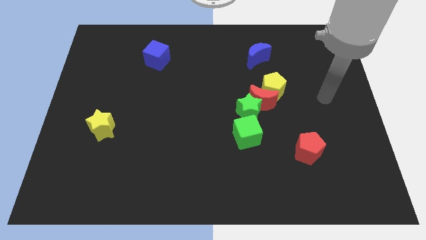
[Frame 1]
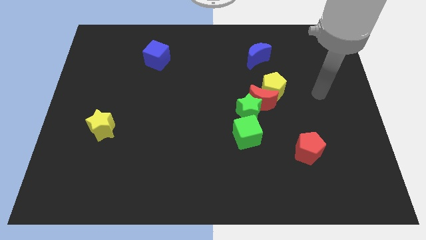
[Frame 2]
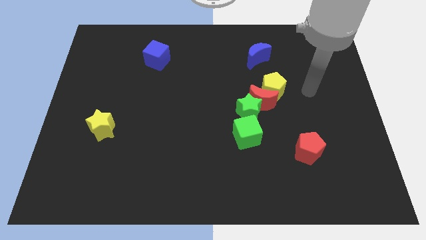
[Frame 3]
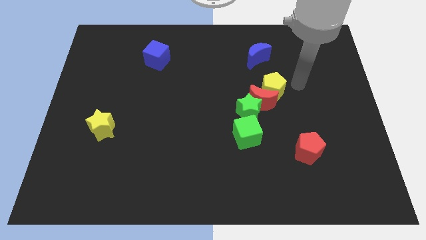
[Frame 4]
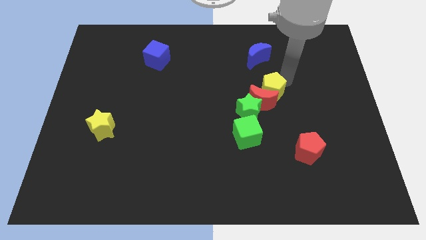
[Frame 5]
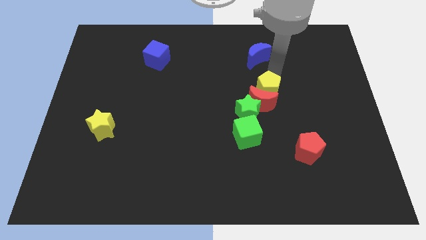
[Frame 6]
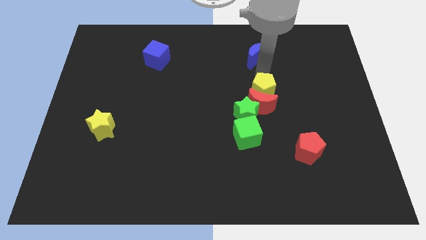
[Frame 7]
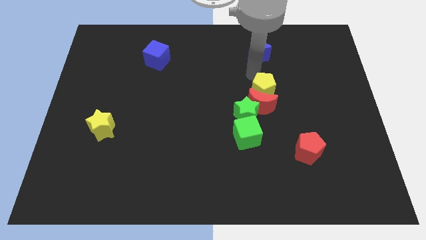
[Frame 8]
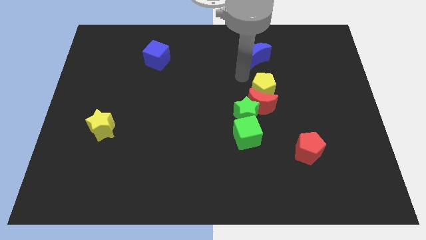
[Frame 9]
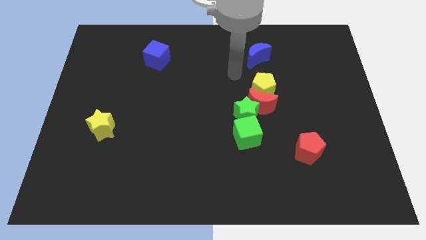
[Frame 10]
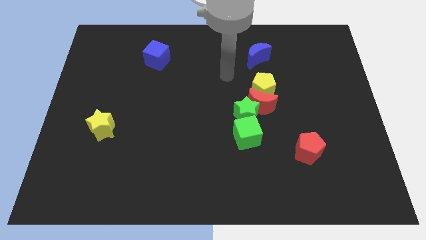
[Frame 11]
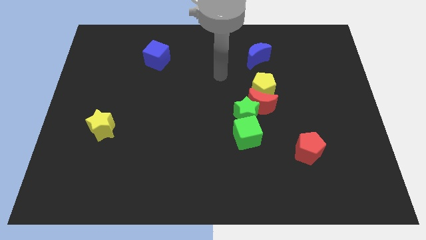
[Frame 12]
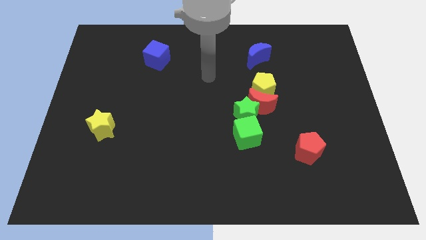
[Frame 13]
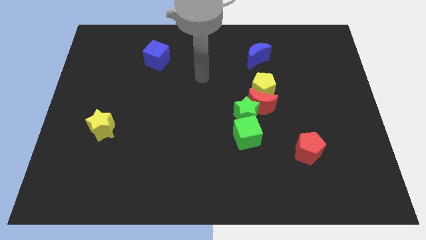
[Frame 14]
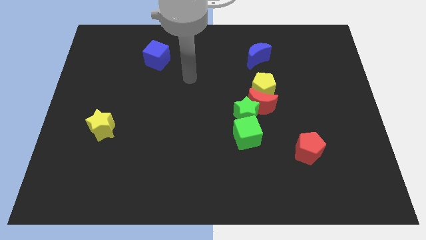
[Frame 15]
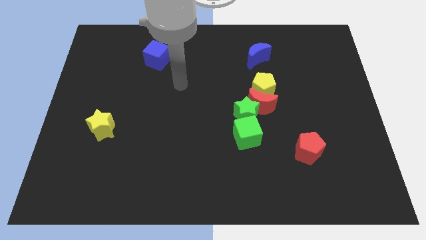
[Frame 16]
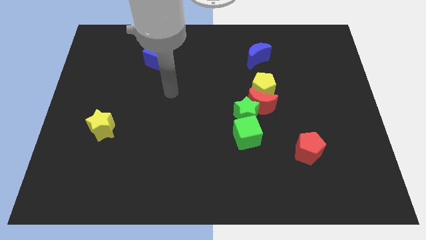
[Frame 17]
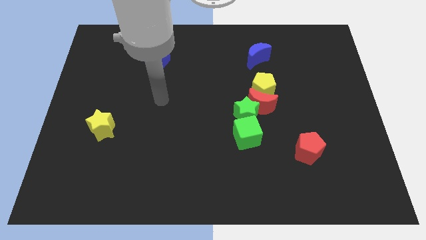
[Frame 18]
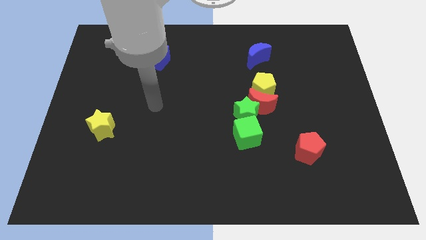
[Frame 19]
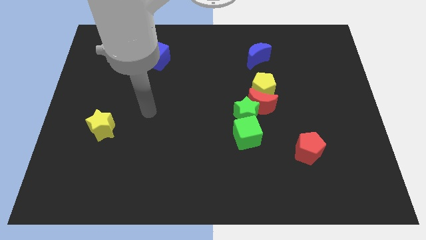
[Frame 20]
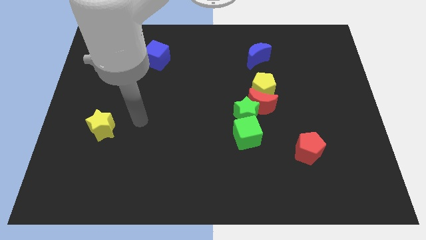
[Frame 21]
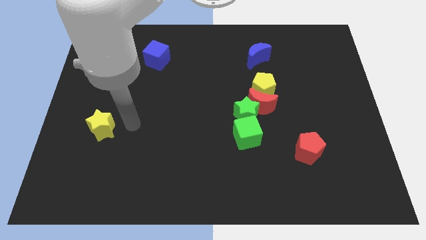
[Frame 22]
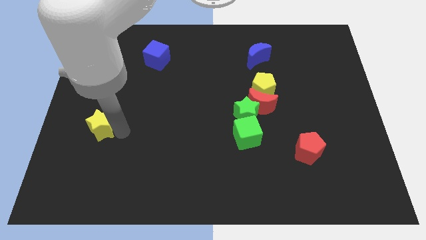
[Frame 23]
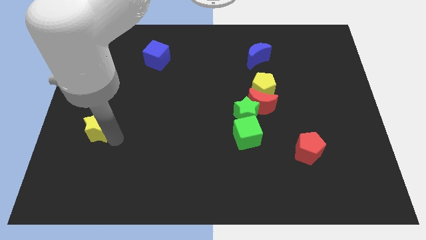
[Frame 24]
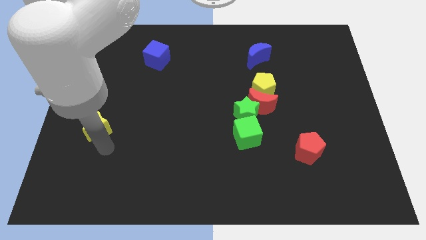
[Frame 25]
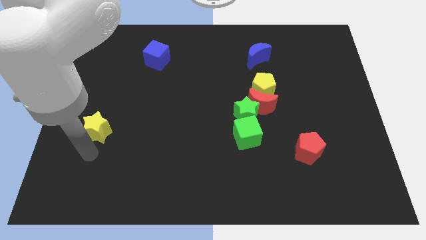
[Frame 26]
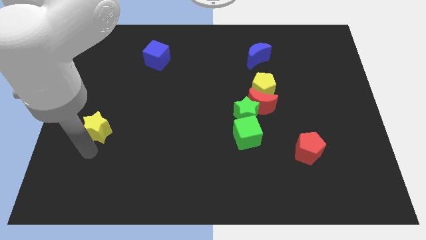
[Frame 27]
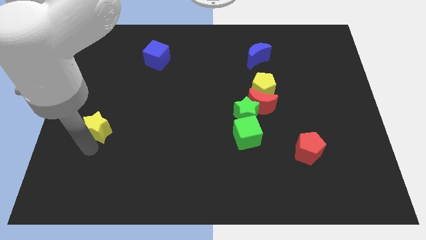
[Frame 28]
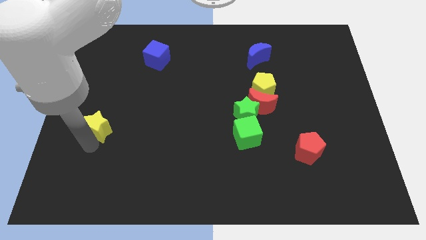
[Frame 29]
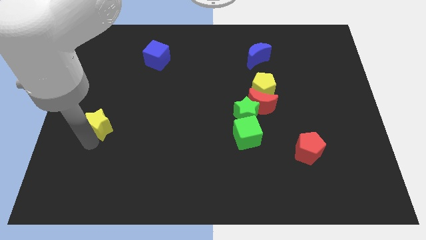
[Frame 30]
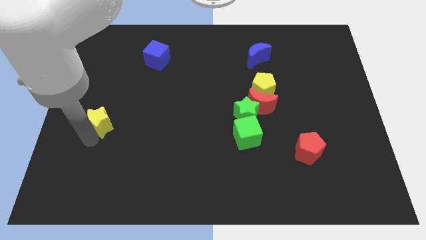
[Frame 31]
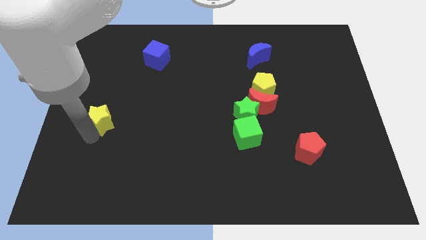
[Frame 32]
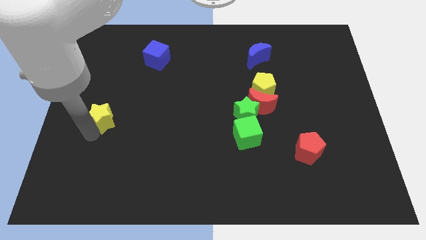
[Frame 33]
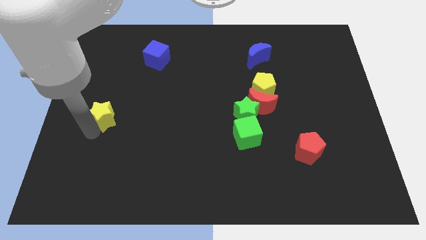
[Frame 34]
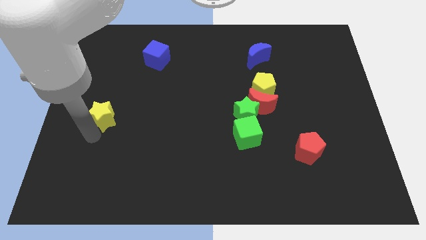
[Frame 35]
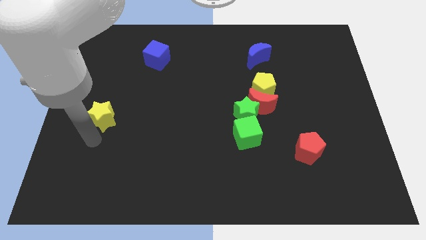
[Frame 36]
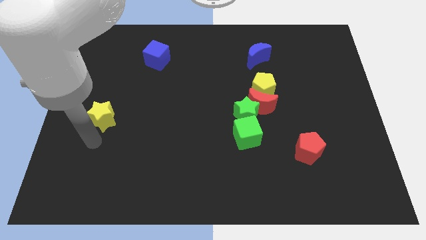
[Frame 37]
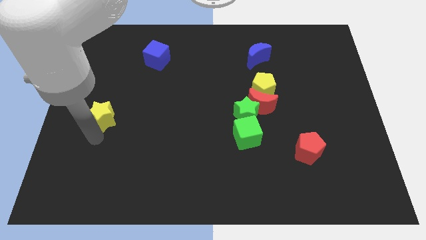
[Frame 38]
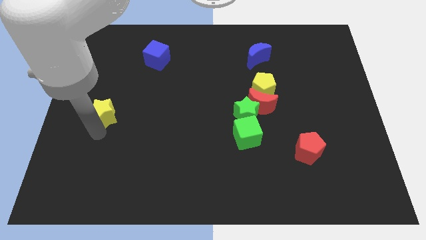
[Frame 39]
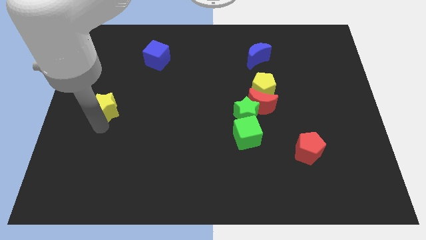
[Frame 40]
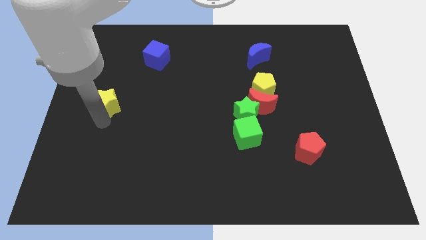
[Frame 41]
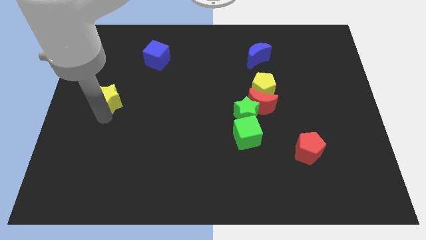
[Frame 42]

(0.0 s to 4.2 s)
slide the yellow star up a bit

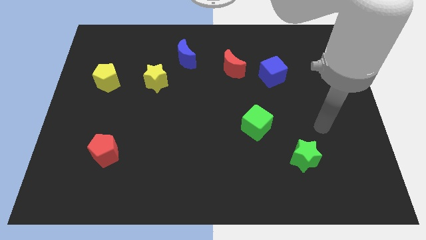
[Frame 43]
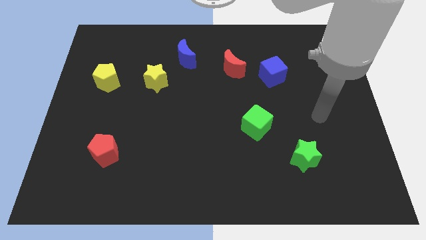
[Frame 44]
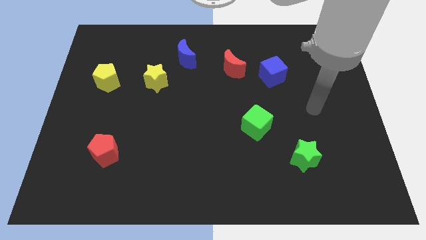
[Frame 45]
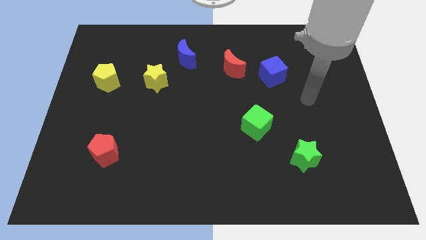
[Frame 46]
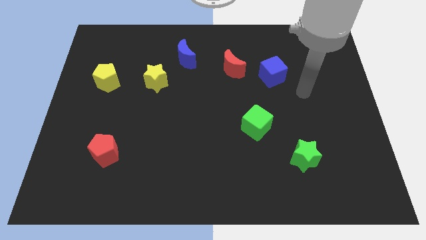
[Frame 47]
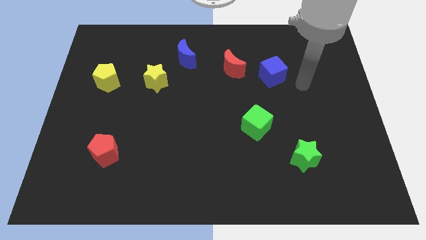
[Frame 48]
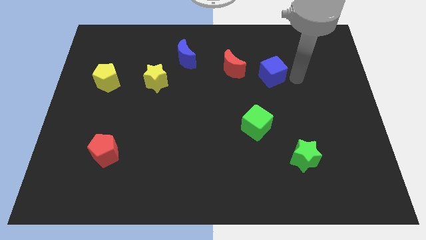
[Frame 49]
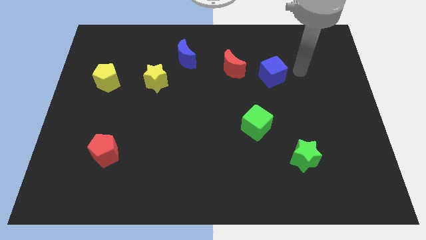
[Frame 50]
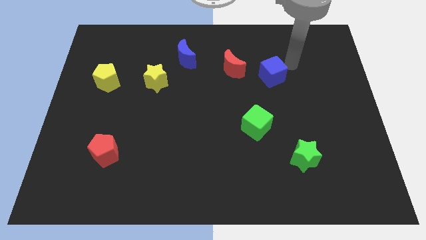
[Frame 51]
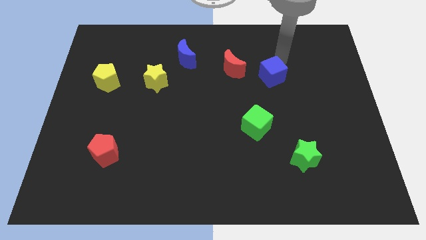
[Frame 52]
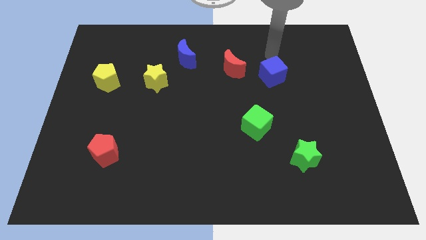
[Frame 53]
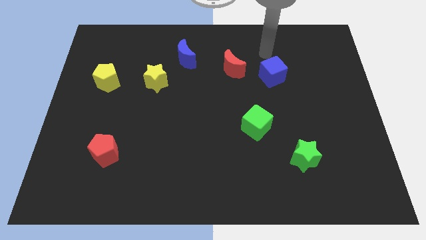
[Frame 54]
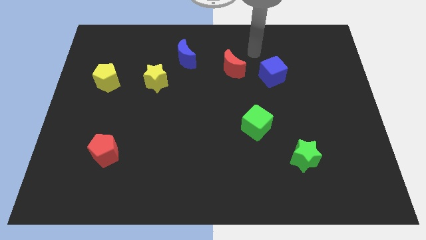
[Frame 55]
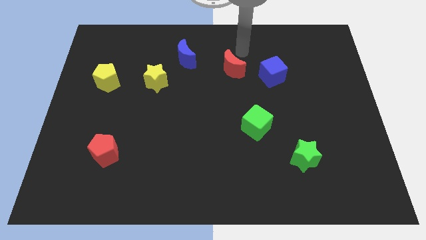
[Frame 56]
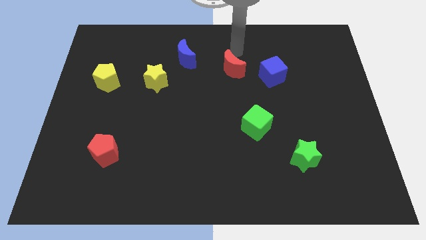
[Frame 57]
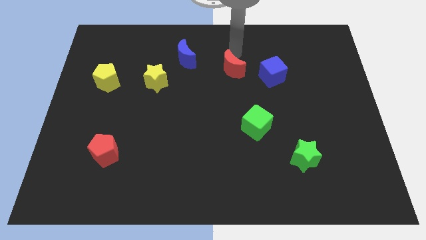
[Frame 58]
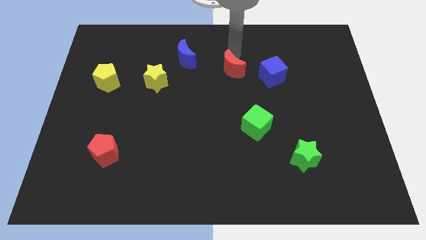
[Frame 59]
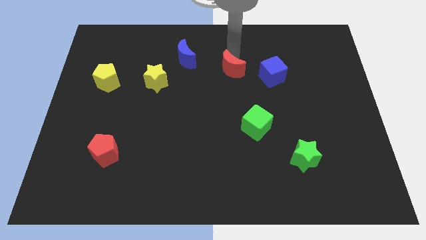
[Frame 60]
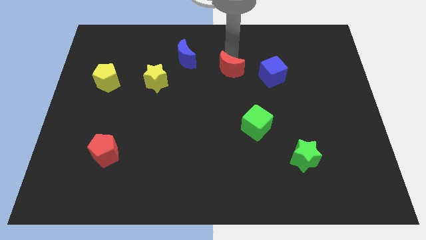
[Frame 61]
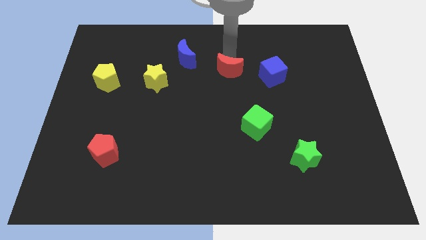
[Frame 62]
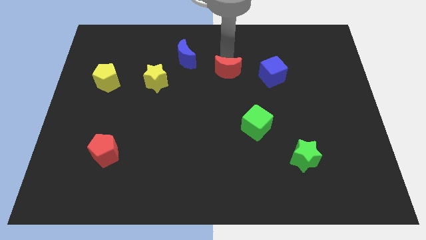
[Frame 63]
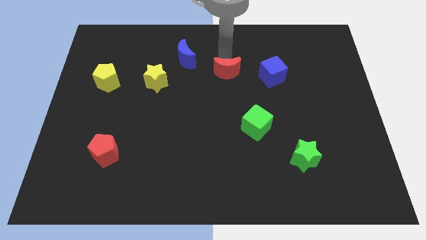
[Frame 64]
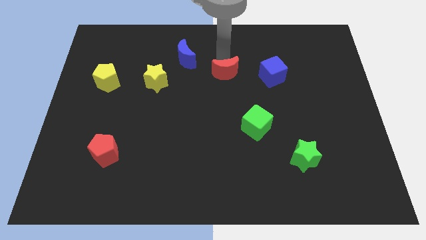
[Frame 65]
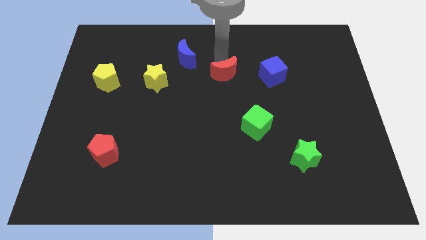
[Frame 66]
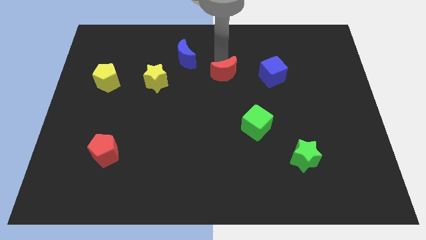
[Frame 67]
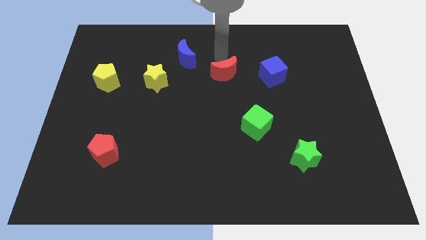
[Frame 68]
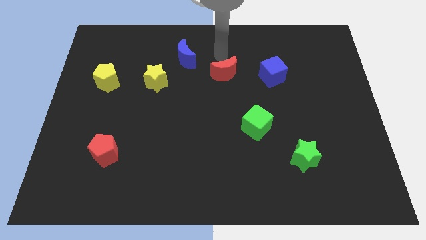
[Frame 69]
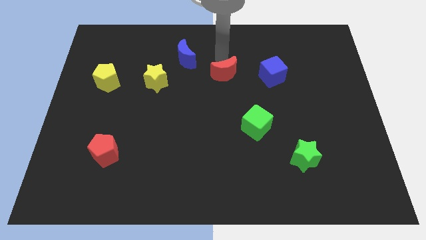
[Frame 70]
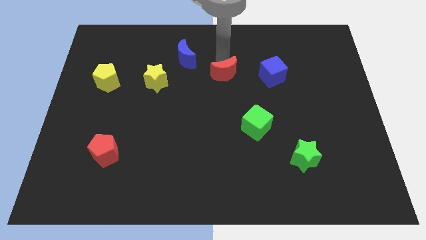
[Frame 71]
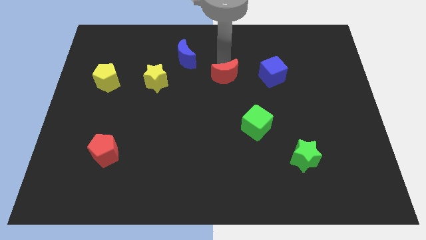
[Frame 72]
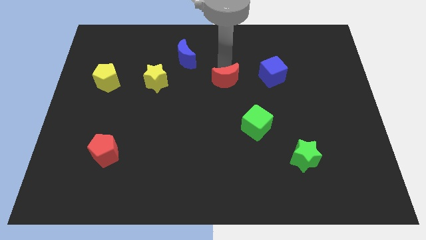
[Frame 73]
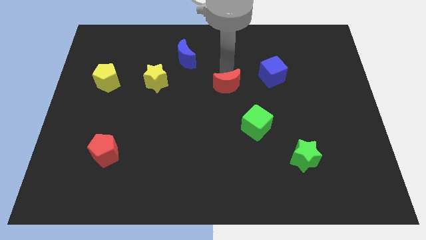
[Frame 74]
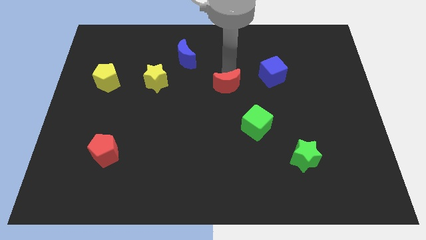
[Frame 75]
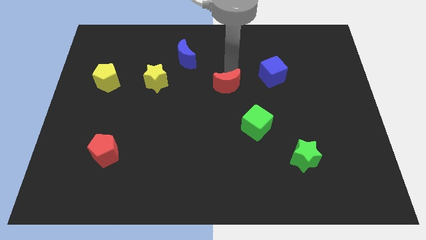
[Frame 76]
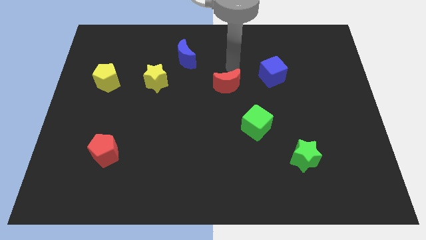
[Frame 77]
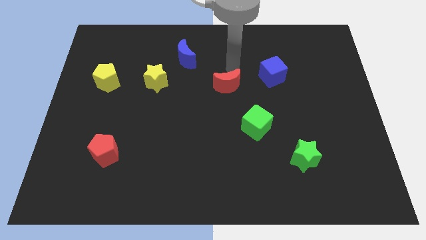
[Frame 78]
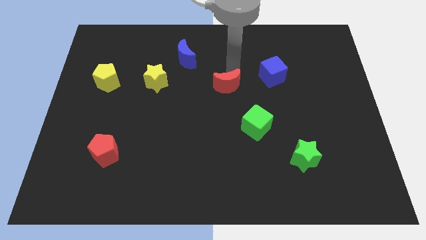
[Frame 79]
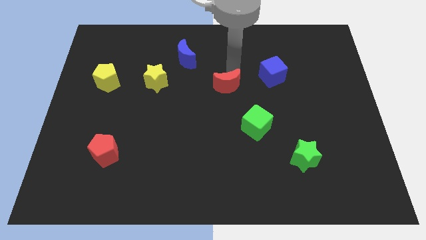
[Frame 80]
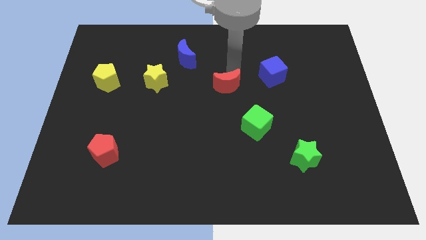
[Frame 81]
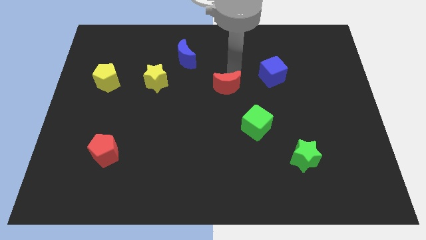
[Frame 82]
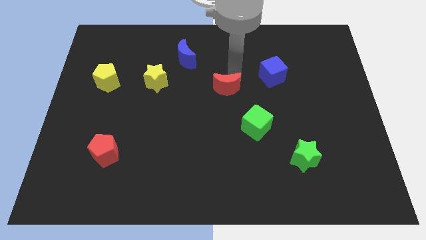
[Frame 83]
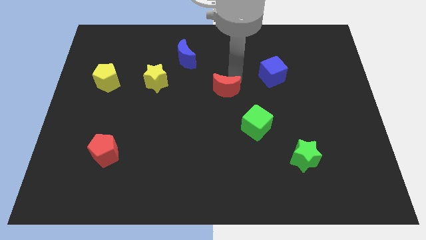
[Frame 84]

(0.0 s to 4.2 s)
push the red moon a little bit downwards
